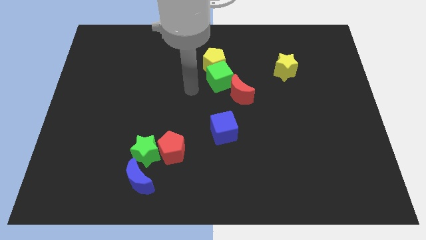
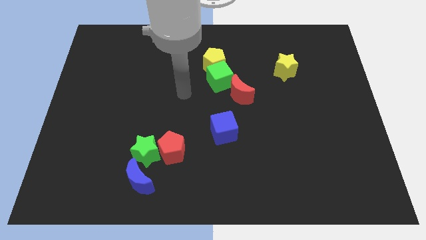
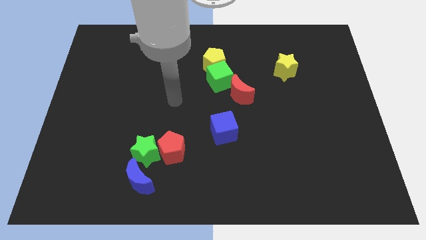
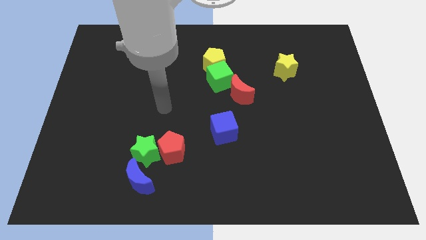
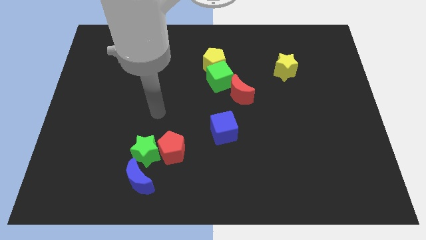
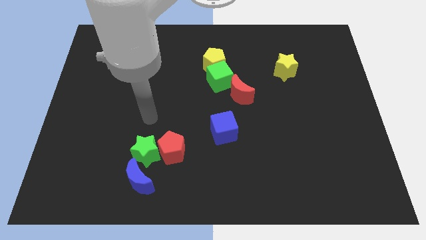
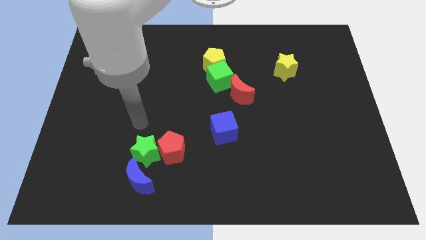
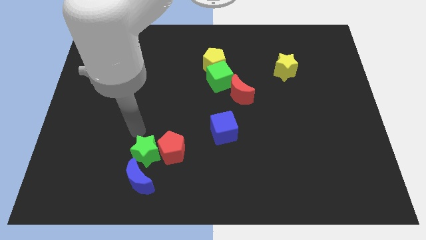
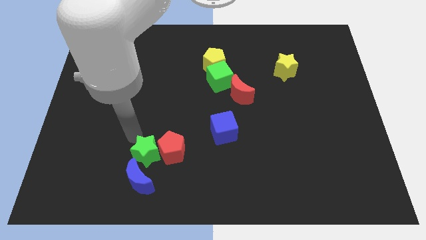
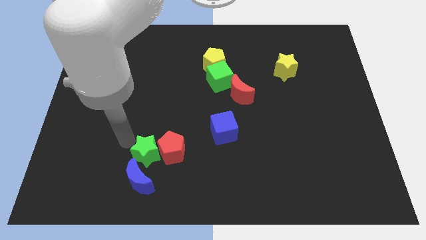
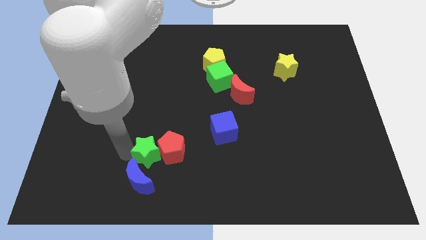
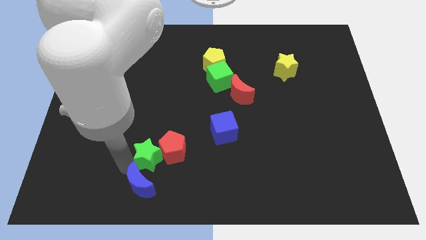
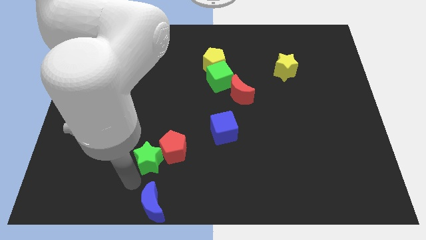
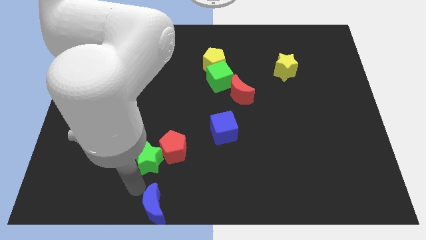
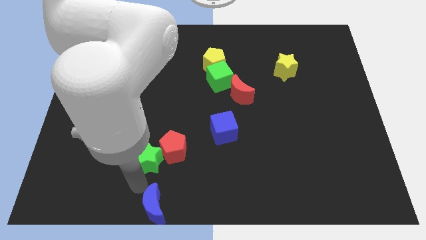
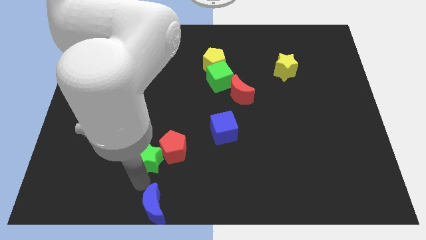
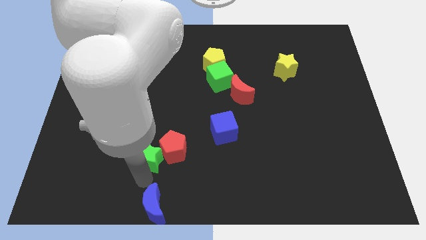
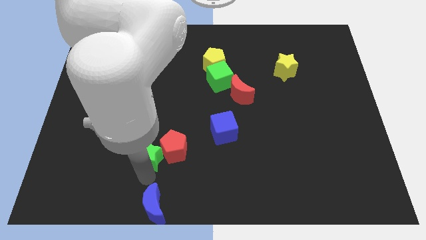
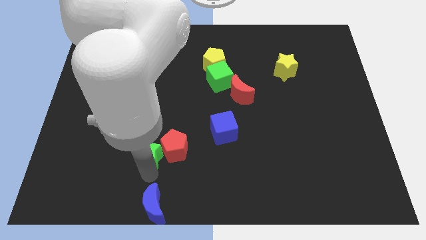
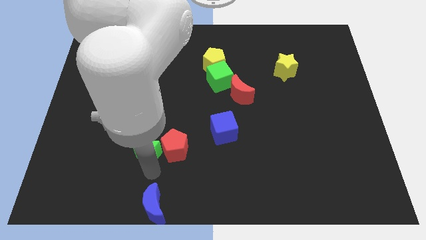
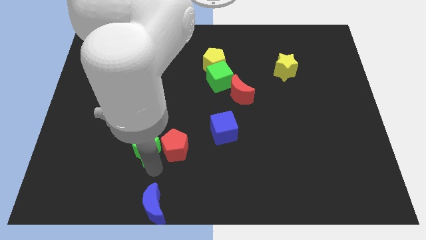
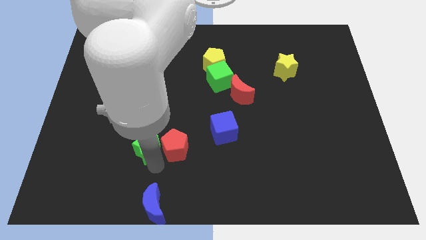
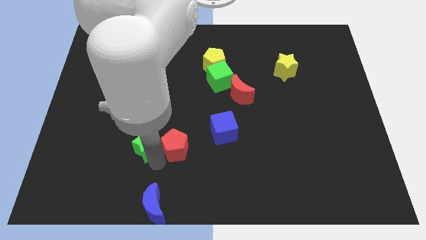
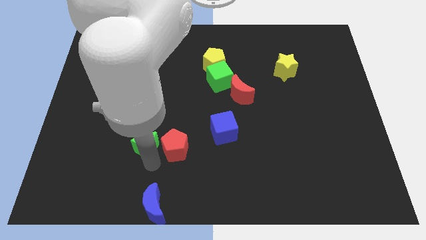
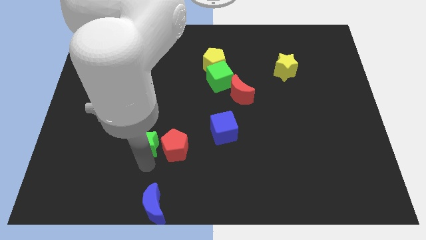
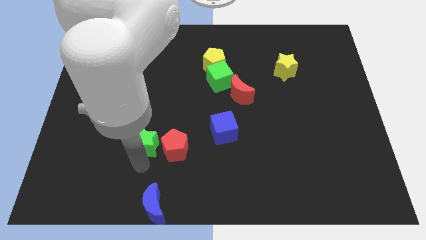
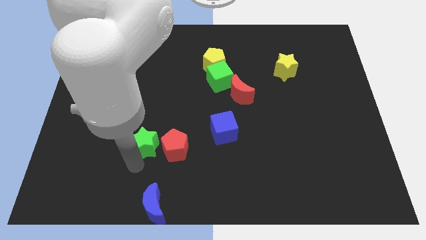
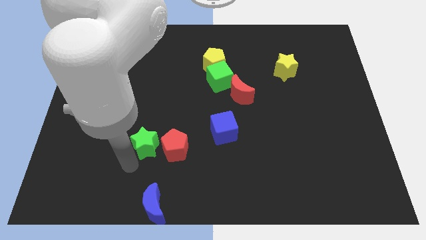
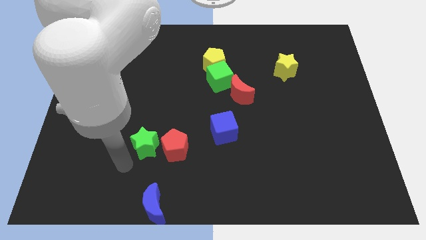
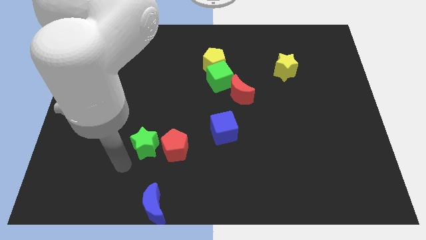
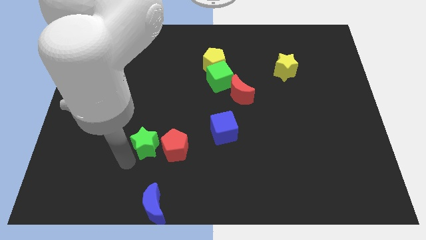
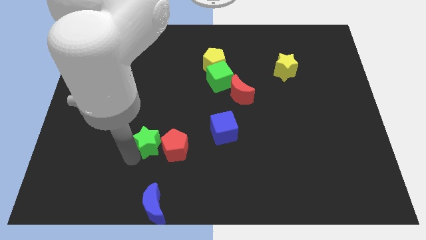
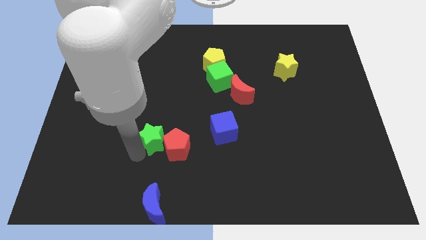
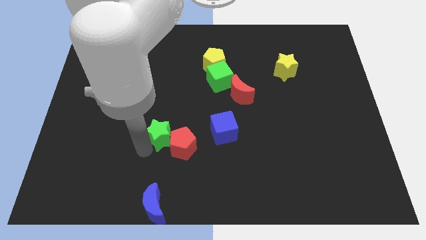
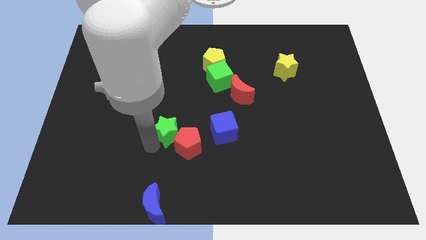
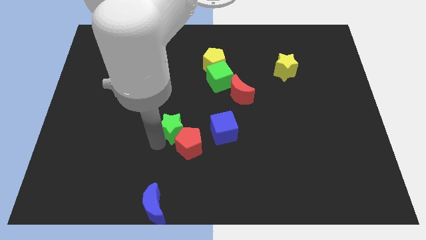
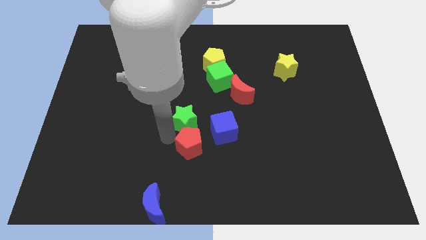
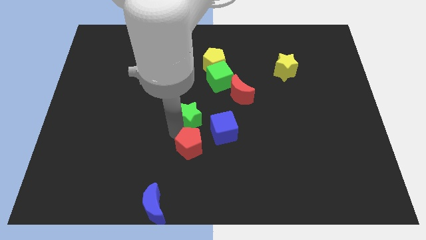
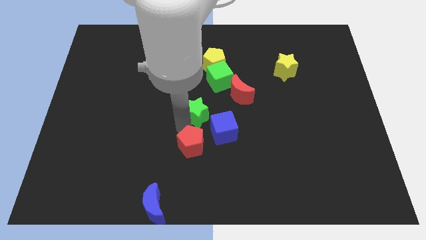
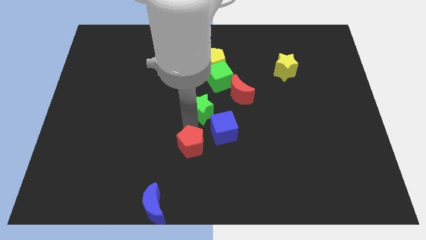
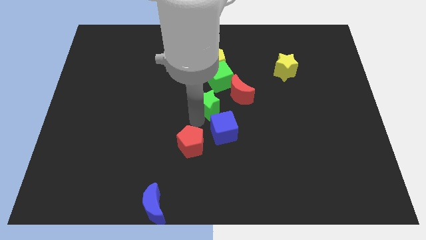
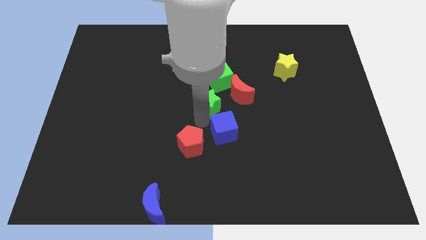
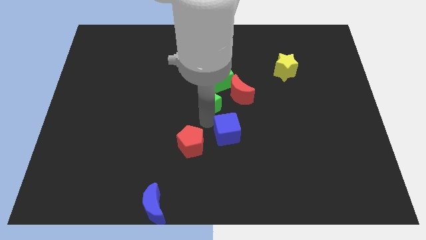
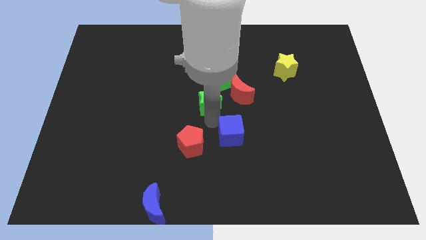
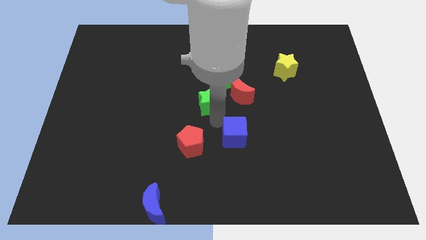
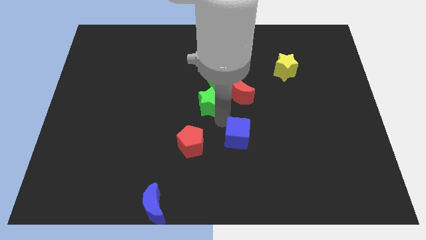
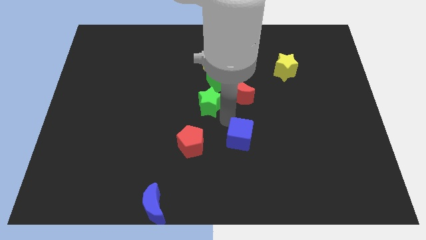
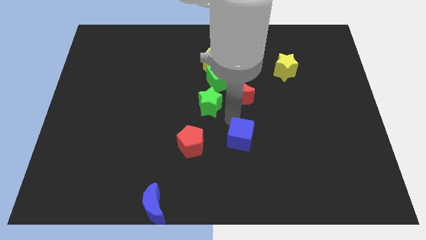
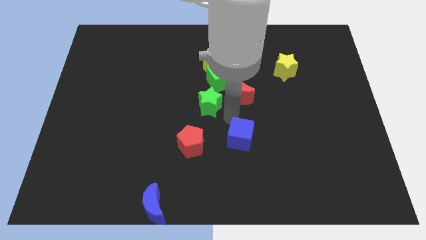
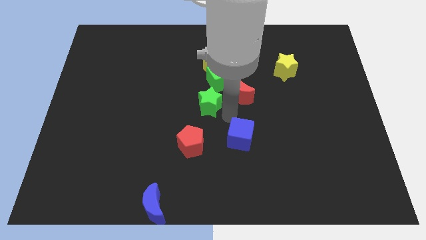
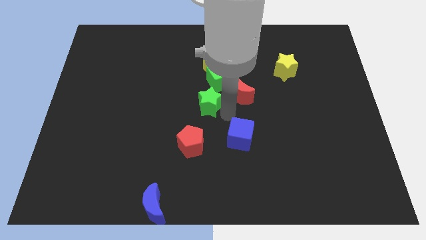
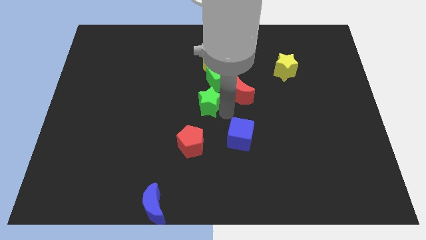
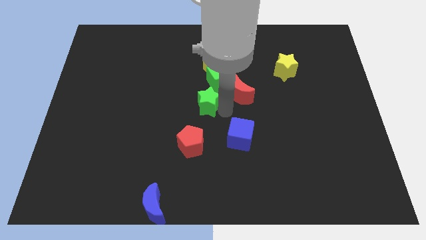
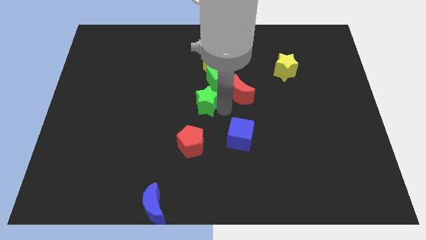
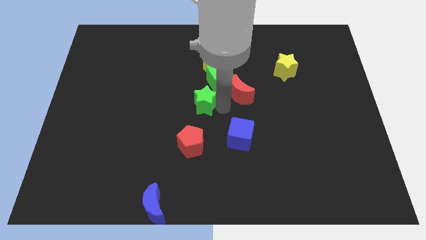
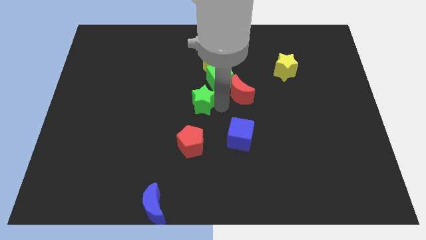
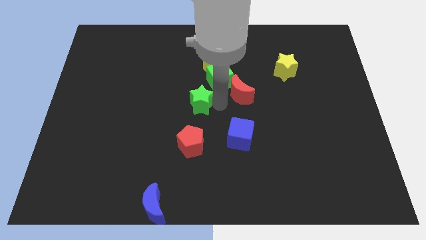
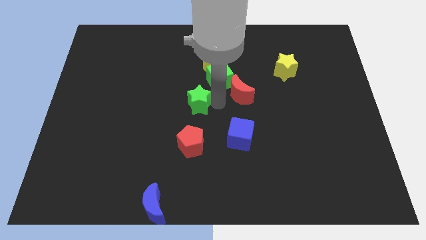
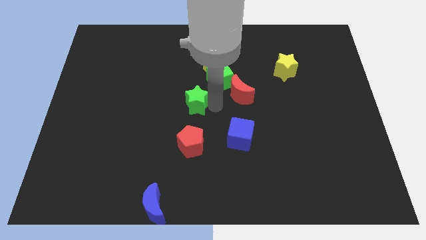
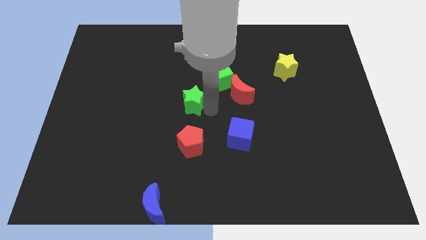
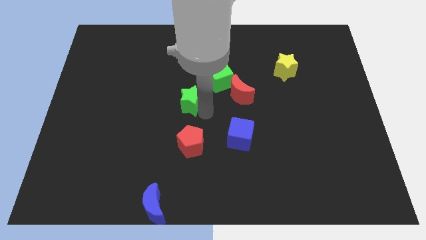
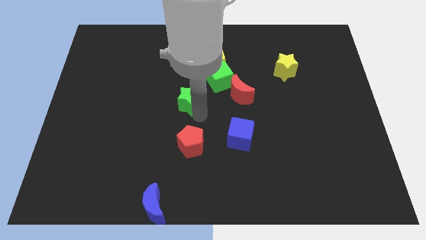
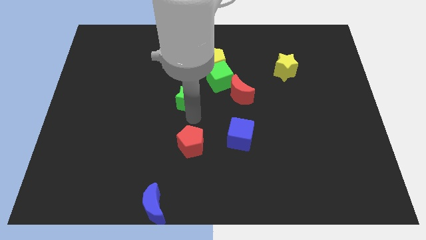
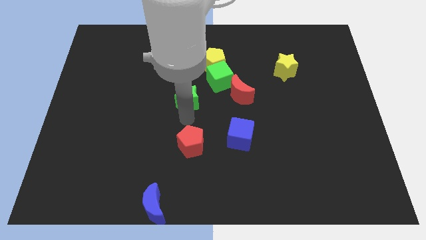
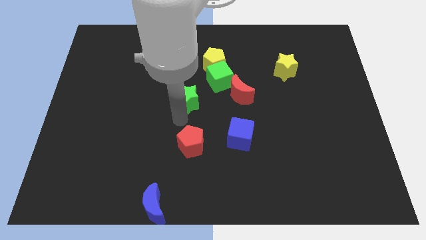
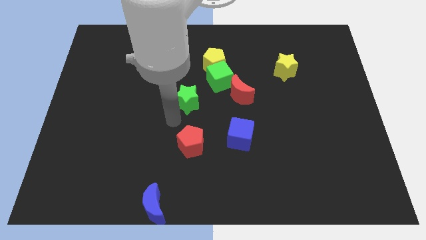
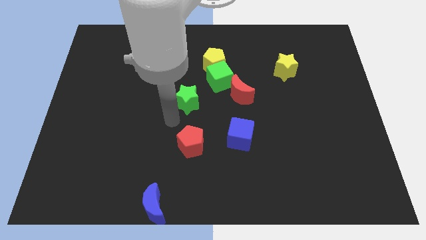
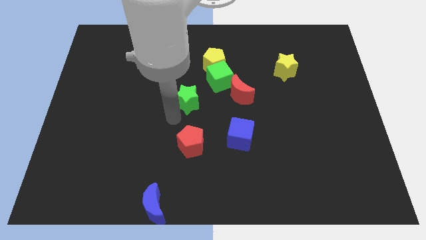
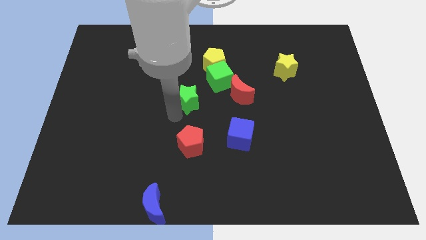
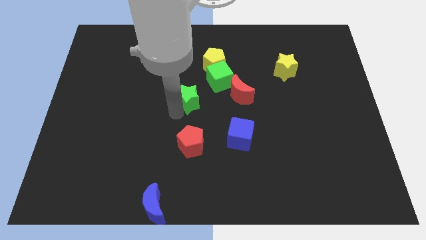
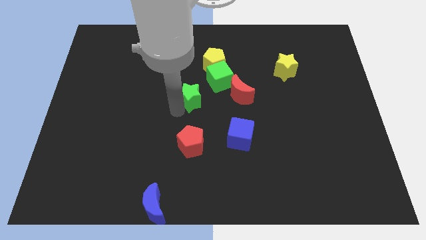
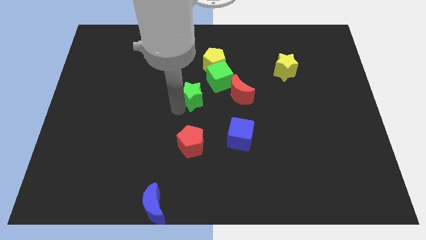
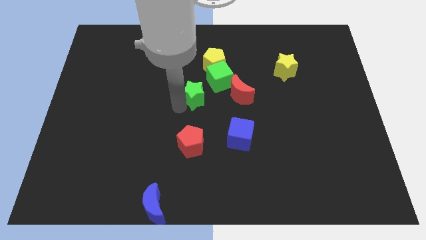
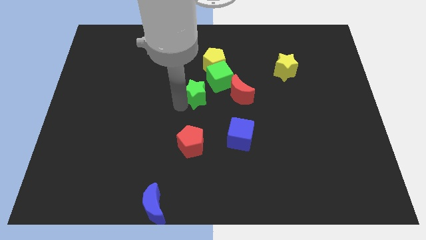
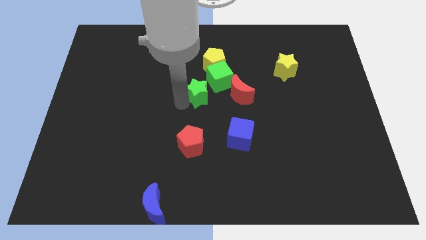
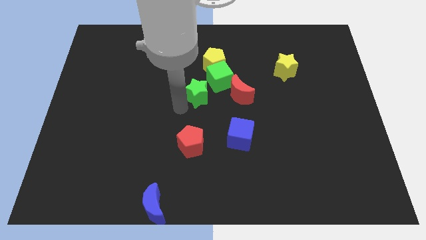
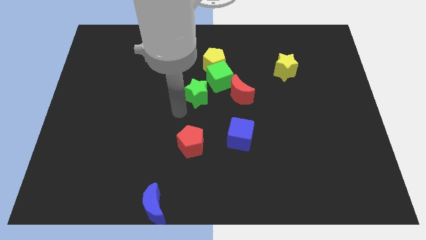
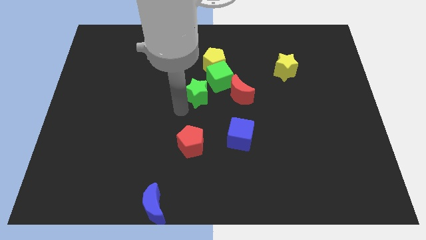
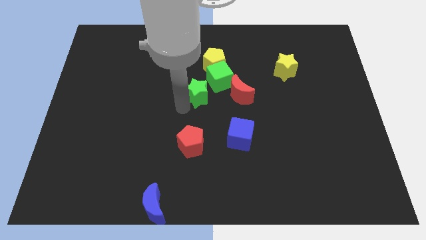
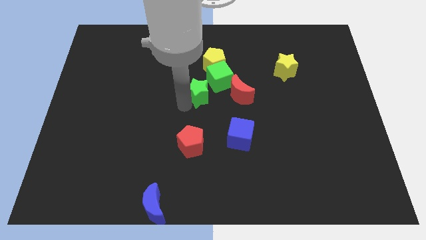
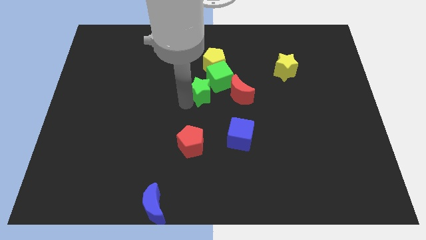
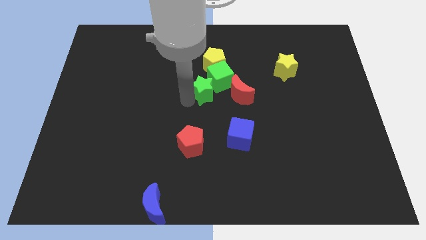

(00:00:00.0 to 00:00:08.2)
push the green star next to the green cube
